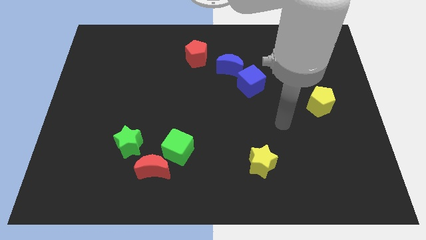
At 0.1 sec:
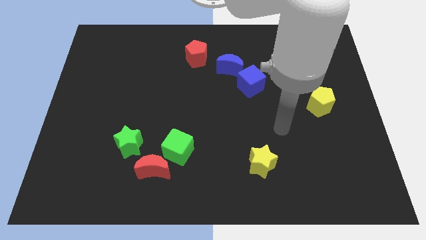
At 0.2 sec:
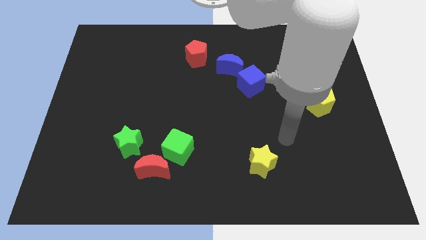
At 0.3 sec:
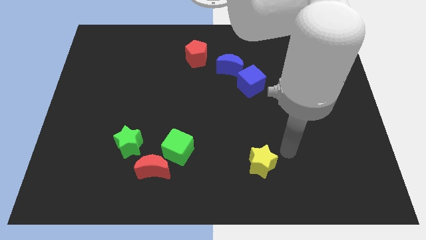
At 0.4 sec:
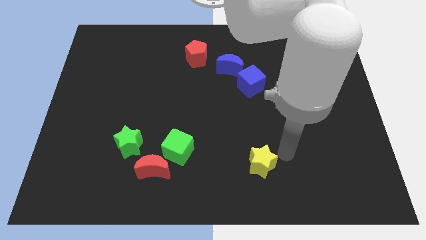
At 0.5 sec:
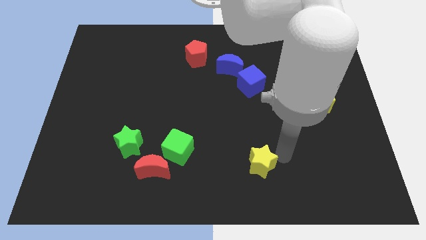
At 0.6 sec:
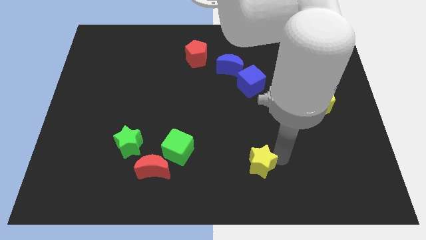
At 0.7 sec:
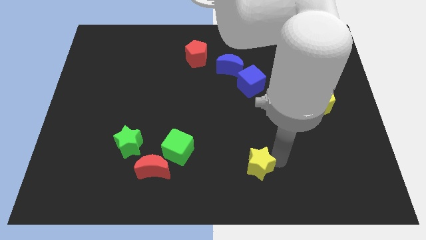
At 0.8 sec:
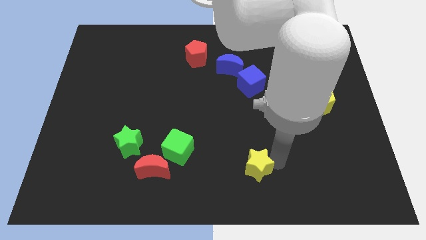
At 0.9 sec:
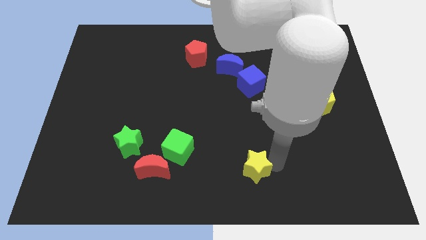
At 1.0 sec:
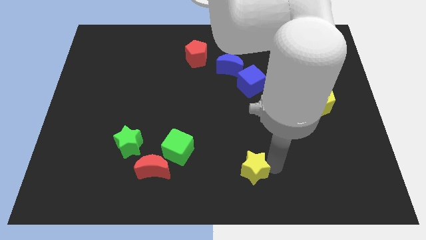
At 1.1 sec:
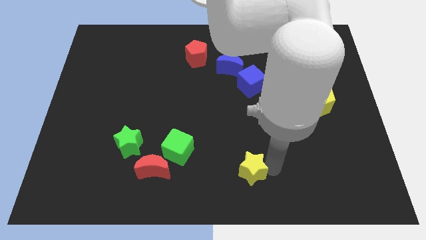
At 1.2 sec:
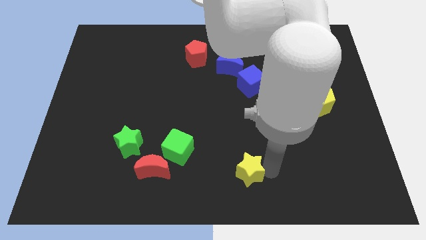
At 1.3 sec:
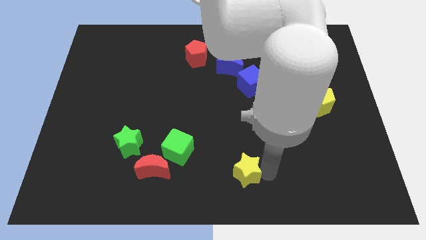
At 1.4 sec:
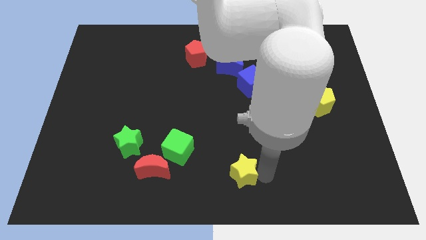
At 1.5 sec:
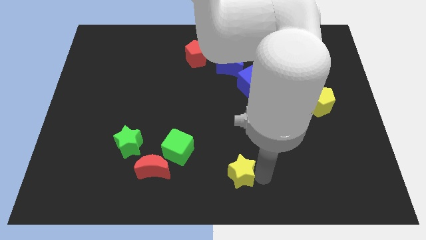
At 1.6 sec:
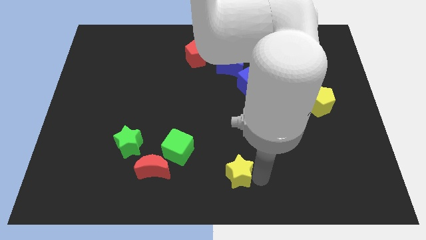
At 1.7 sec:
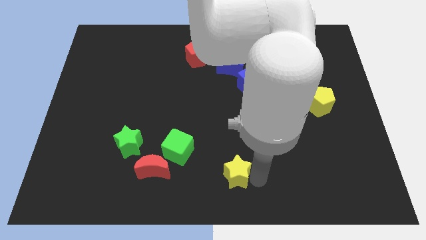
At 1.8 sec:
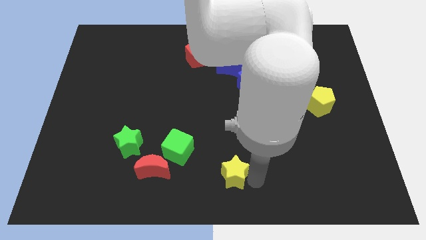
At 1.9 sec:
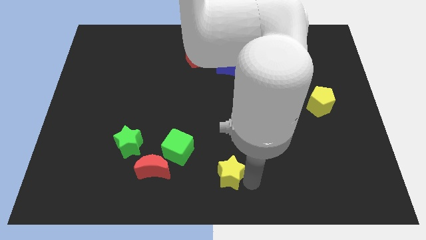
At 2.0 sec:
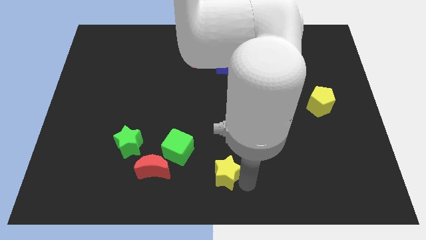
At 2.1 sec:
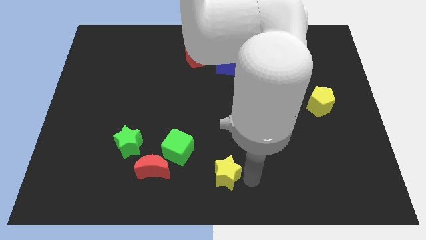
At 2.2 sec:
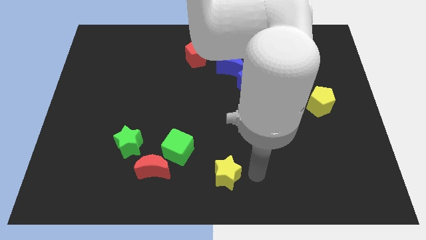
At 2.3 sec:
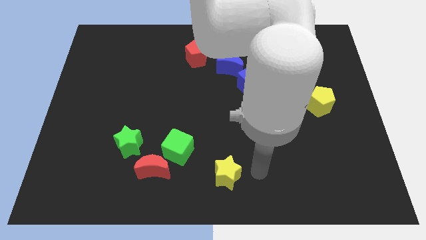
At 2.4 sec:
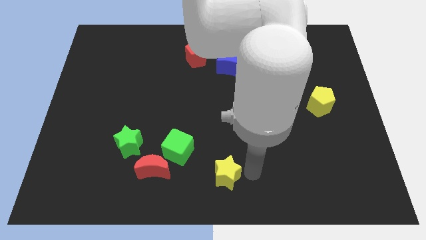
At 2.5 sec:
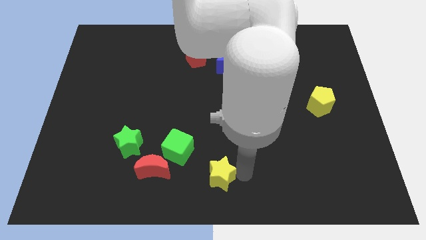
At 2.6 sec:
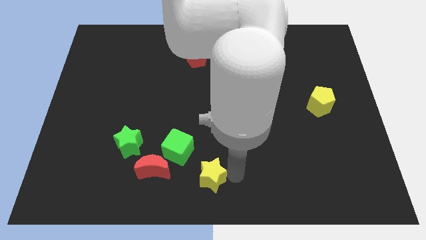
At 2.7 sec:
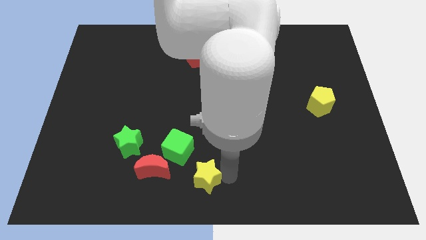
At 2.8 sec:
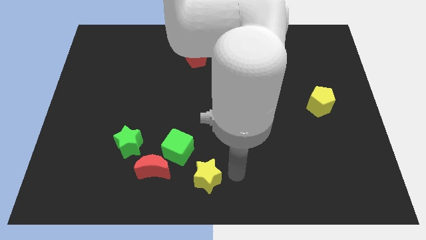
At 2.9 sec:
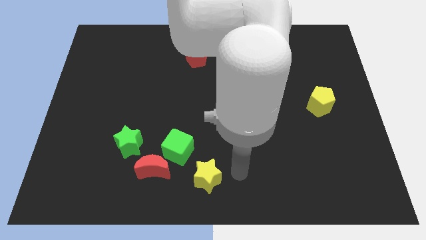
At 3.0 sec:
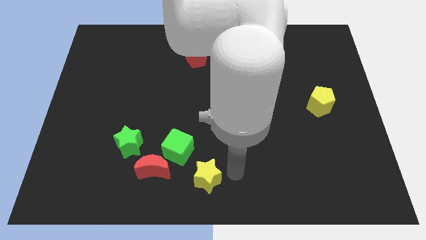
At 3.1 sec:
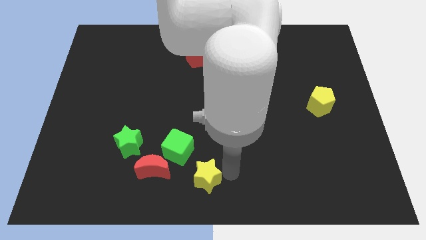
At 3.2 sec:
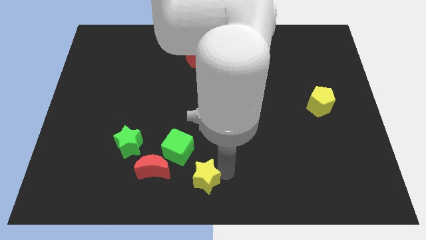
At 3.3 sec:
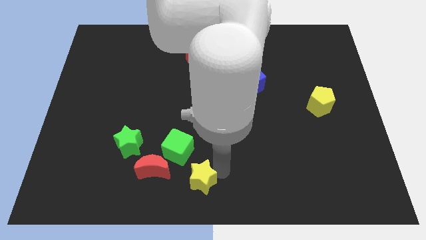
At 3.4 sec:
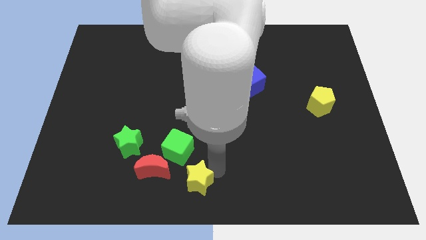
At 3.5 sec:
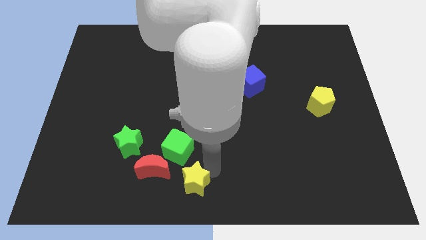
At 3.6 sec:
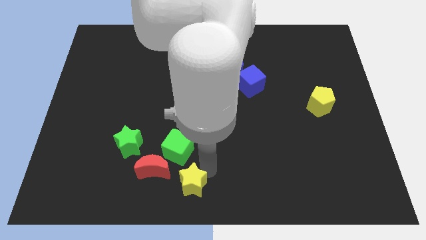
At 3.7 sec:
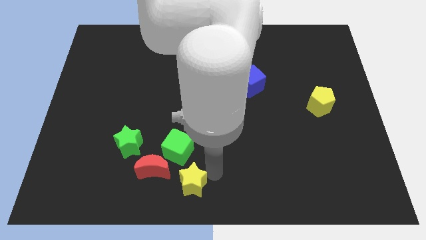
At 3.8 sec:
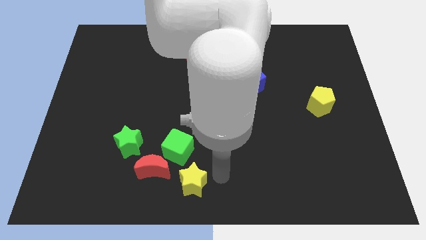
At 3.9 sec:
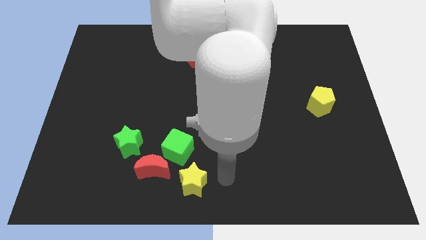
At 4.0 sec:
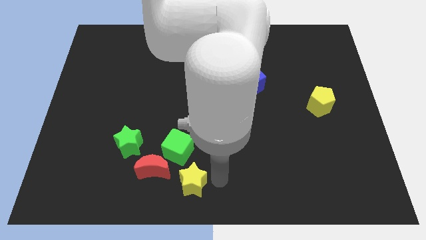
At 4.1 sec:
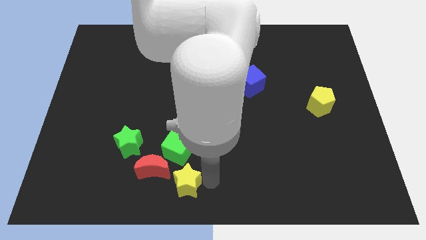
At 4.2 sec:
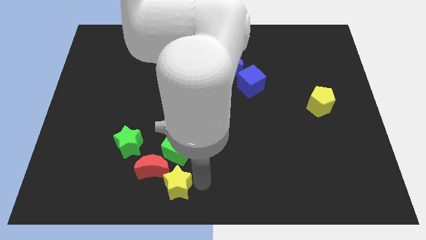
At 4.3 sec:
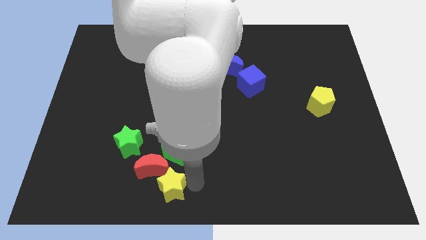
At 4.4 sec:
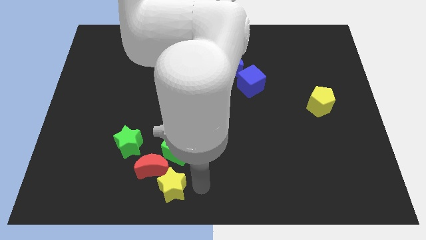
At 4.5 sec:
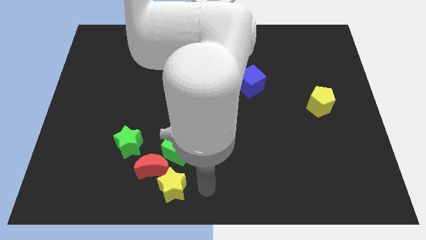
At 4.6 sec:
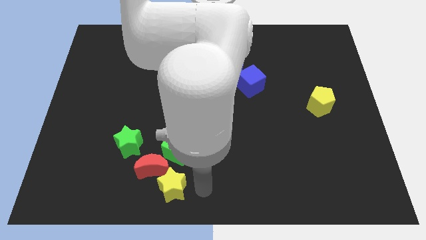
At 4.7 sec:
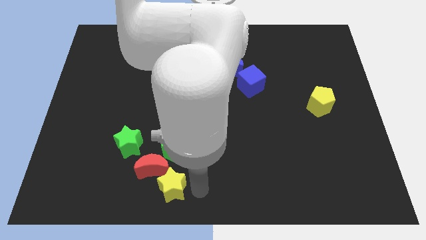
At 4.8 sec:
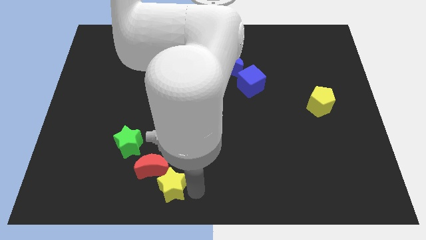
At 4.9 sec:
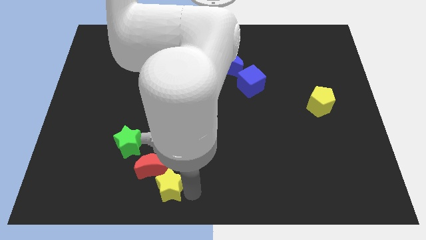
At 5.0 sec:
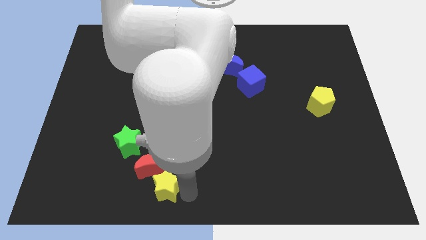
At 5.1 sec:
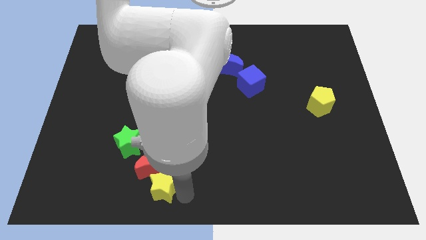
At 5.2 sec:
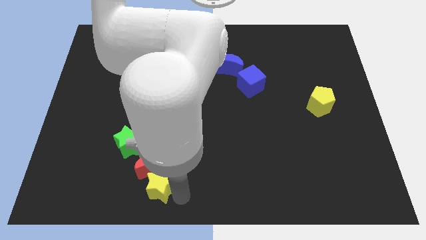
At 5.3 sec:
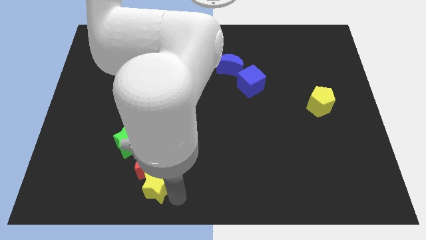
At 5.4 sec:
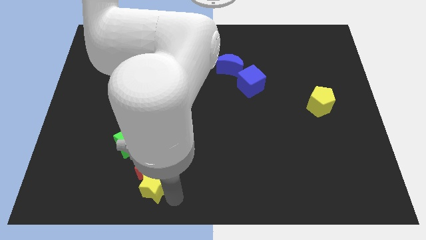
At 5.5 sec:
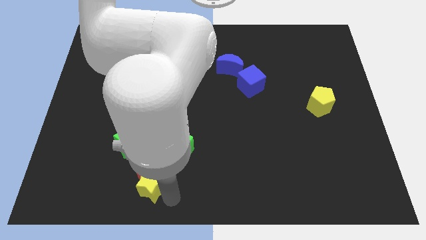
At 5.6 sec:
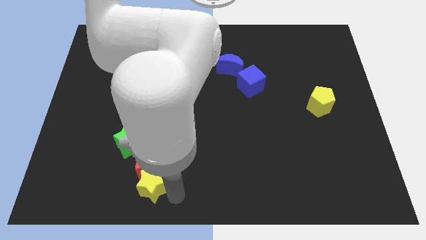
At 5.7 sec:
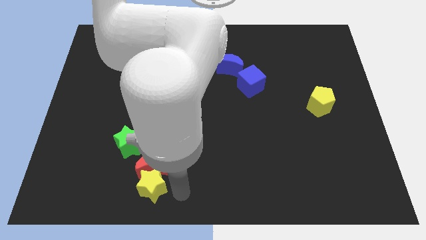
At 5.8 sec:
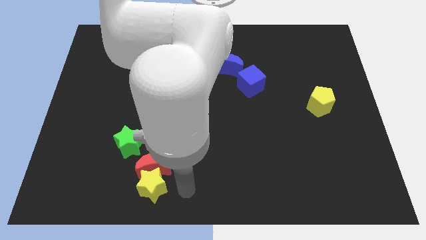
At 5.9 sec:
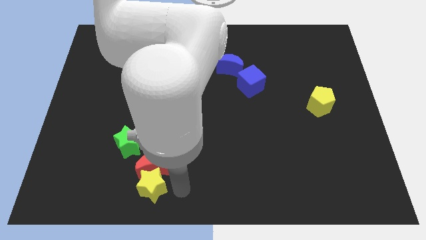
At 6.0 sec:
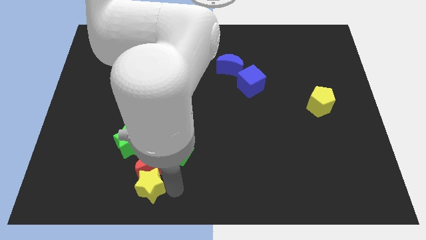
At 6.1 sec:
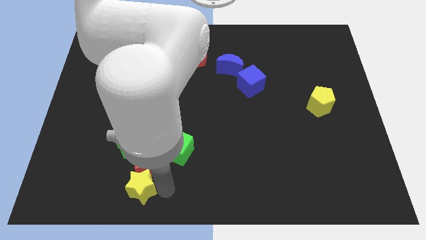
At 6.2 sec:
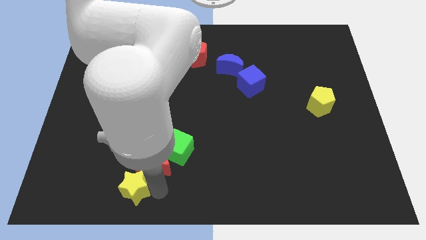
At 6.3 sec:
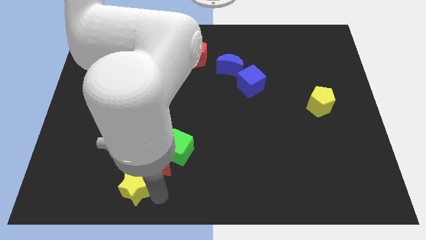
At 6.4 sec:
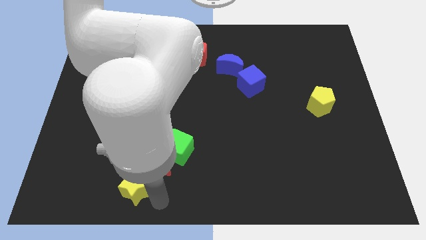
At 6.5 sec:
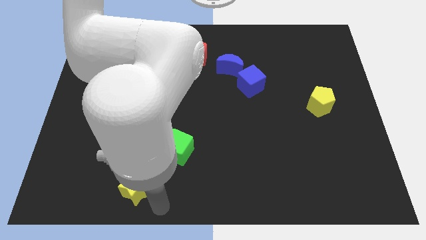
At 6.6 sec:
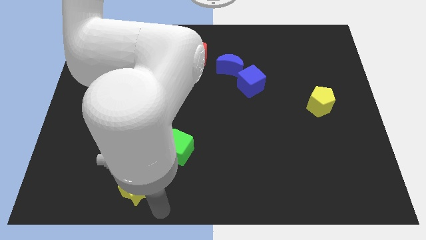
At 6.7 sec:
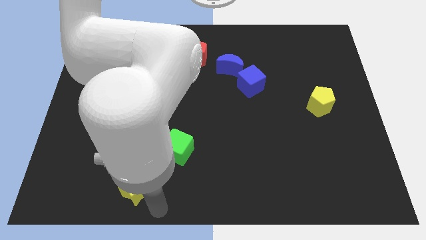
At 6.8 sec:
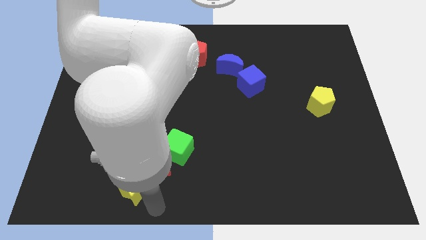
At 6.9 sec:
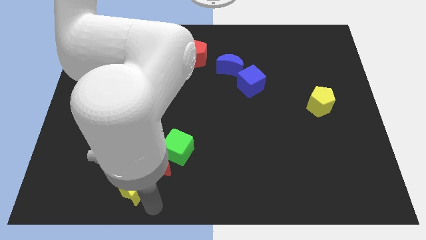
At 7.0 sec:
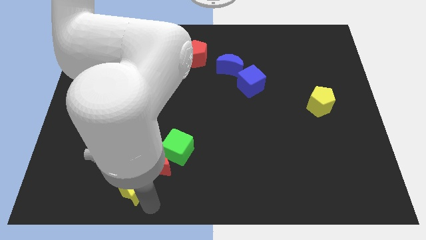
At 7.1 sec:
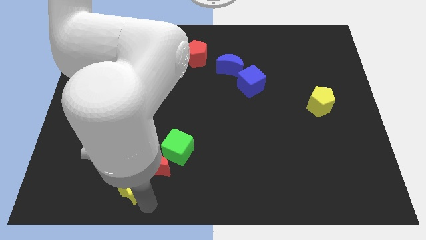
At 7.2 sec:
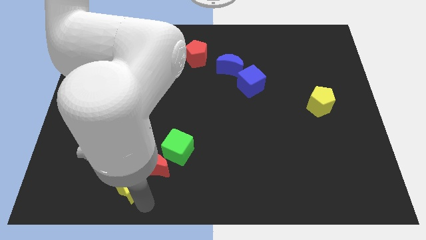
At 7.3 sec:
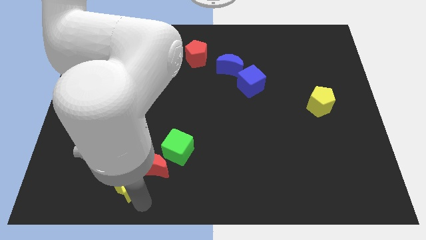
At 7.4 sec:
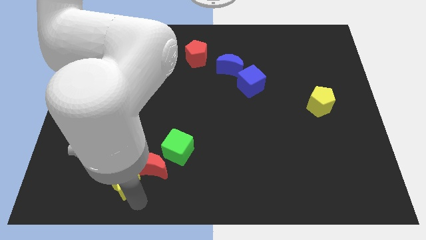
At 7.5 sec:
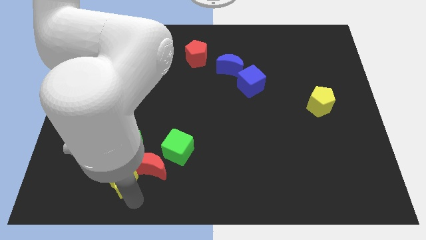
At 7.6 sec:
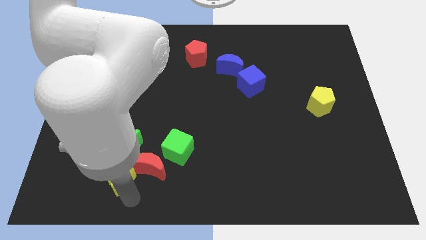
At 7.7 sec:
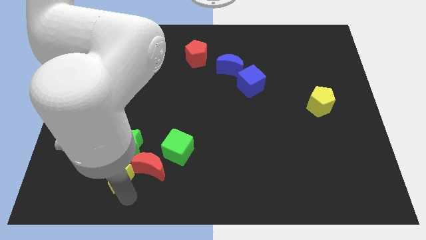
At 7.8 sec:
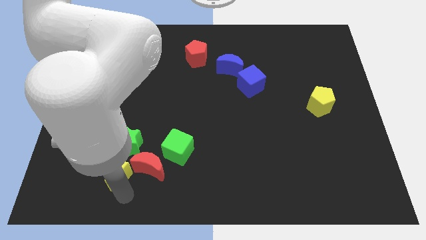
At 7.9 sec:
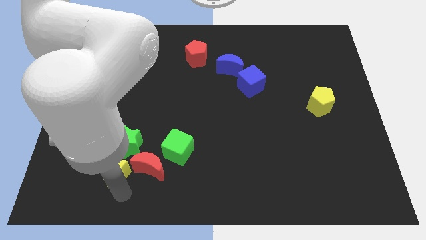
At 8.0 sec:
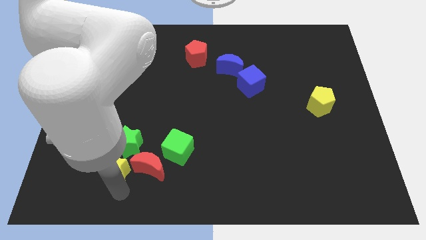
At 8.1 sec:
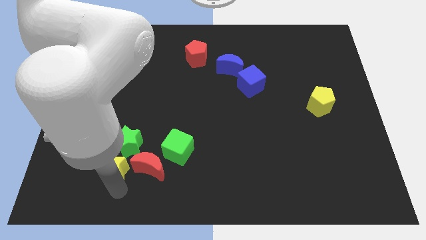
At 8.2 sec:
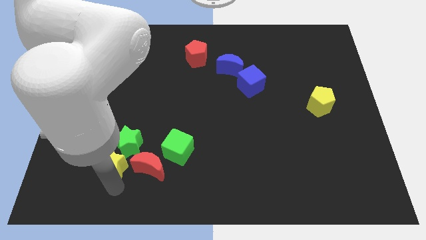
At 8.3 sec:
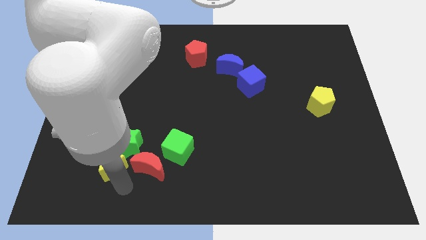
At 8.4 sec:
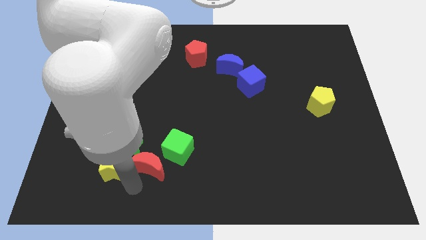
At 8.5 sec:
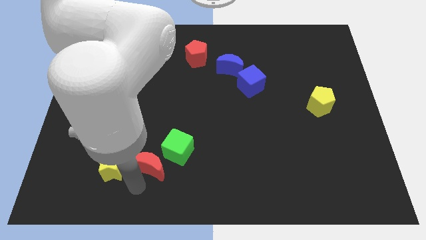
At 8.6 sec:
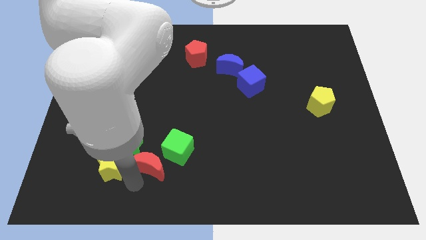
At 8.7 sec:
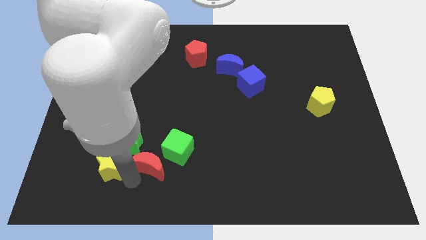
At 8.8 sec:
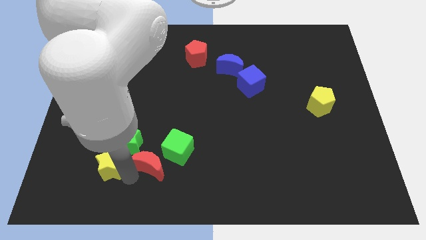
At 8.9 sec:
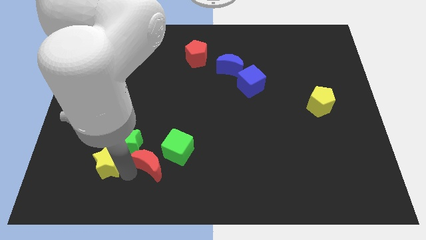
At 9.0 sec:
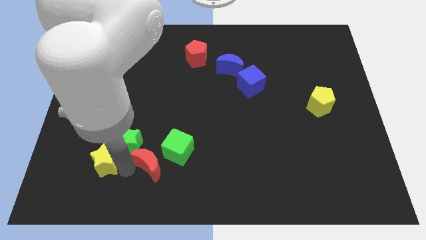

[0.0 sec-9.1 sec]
slide the yellow star to the left side of the green star
